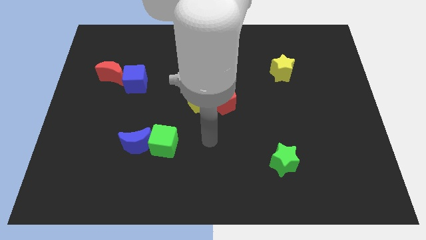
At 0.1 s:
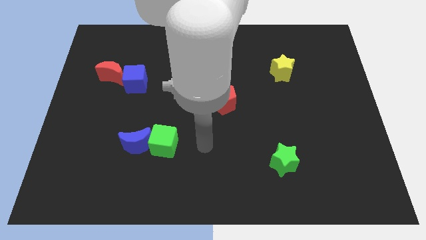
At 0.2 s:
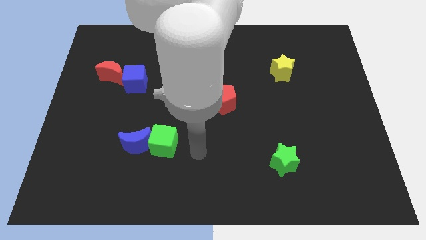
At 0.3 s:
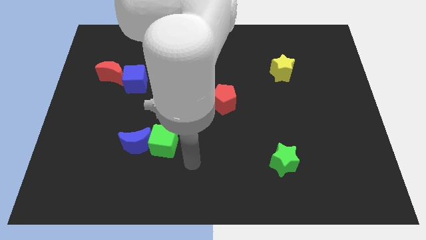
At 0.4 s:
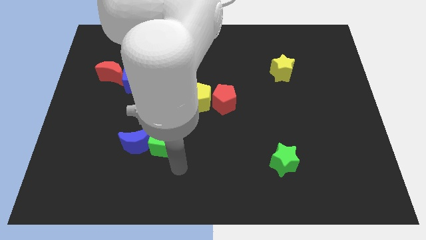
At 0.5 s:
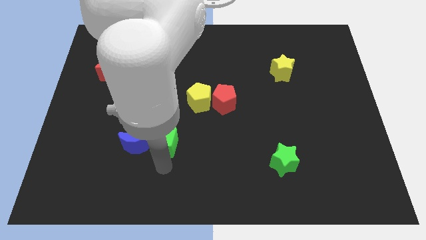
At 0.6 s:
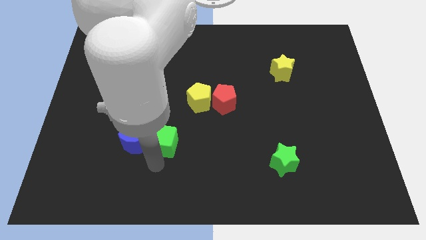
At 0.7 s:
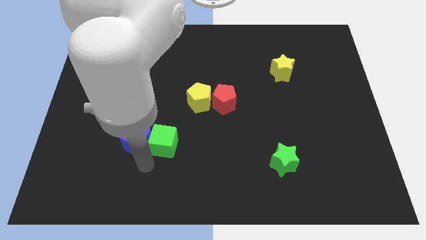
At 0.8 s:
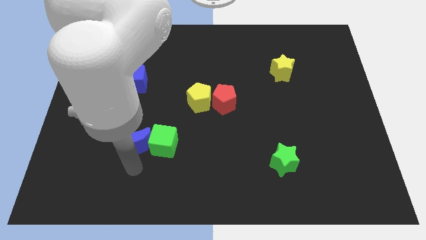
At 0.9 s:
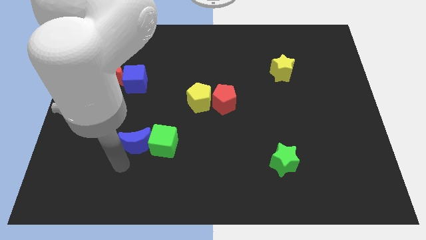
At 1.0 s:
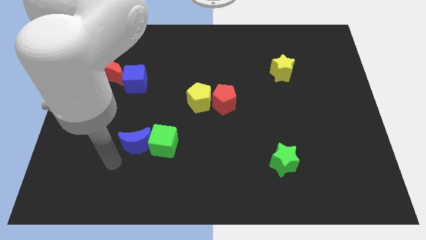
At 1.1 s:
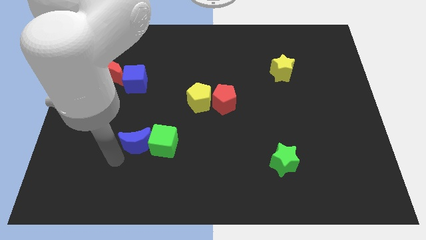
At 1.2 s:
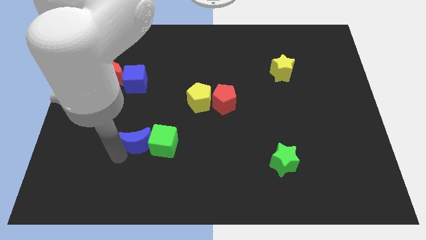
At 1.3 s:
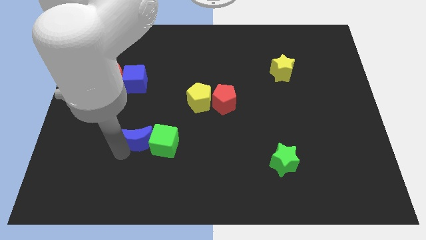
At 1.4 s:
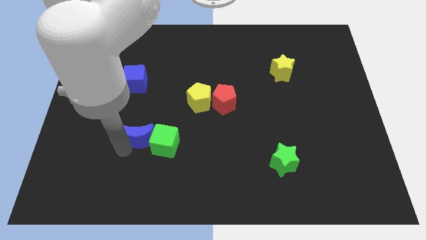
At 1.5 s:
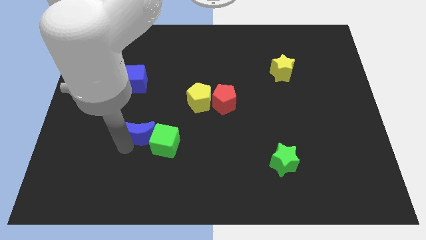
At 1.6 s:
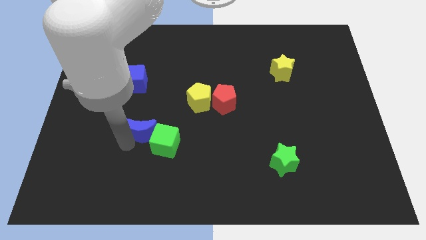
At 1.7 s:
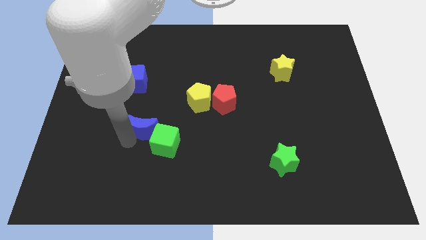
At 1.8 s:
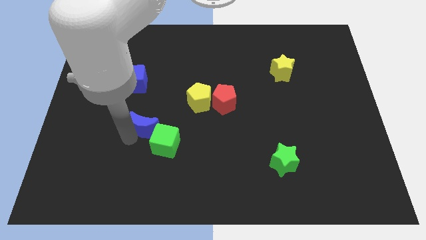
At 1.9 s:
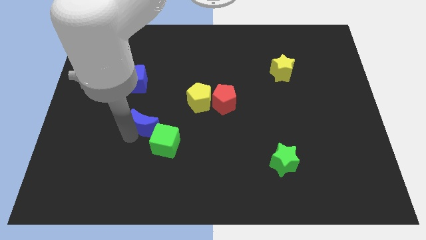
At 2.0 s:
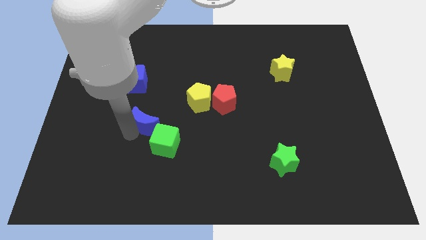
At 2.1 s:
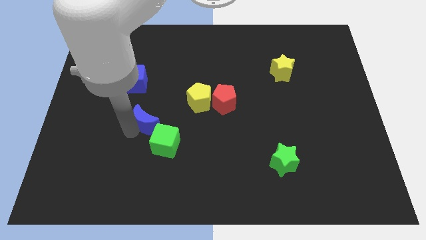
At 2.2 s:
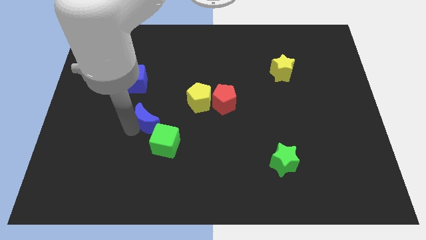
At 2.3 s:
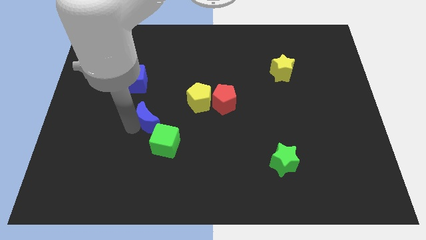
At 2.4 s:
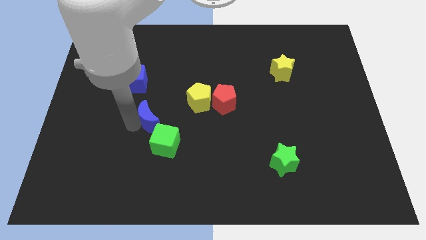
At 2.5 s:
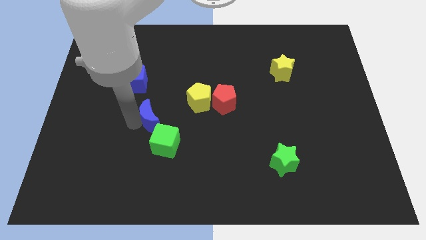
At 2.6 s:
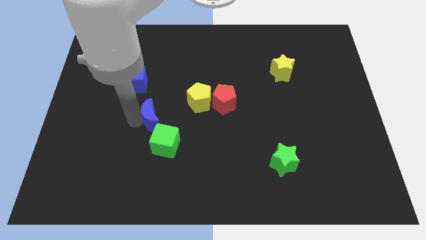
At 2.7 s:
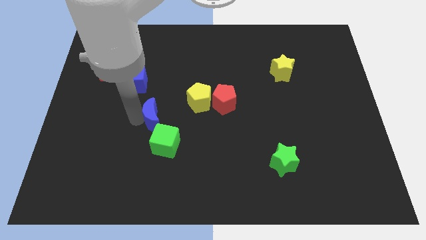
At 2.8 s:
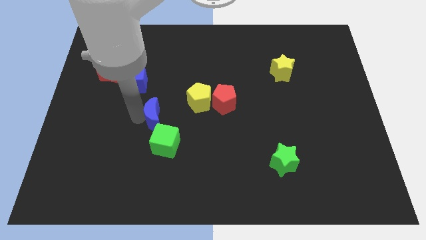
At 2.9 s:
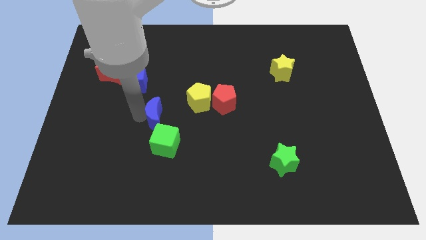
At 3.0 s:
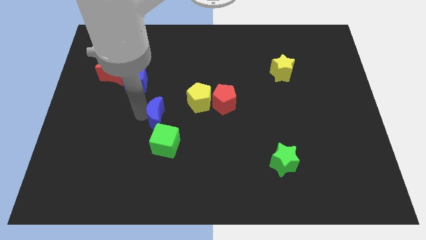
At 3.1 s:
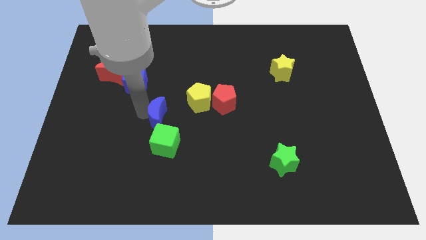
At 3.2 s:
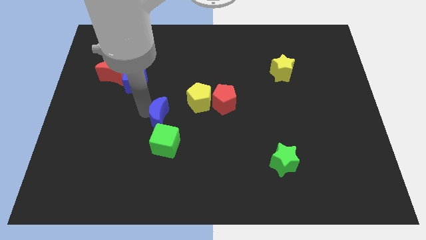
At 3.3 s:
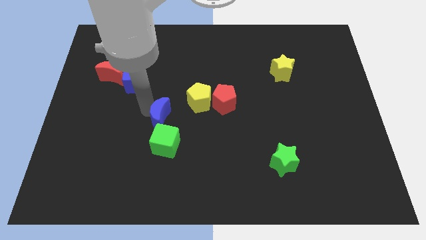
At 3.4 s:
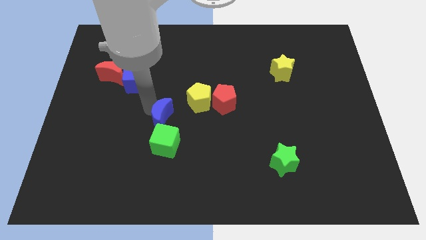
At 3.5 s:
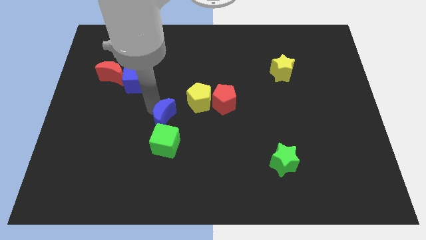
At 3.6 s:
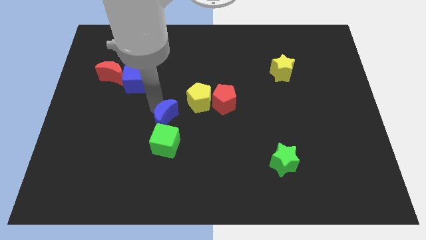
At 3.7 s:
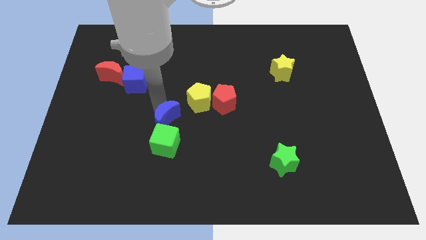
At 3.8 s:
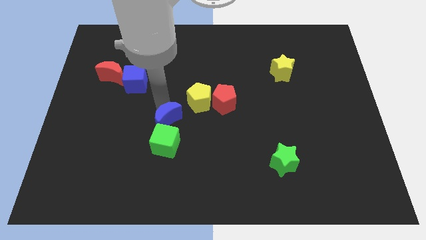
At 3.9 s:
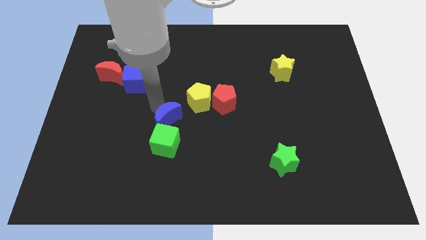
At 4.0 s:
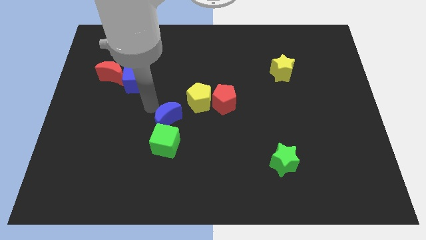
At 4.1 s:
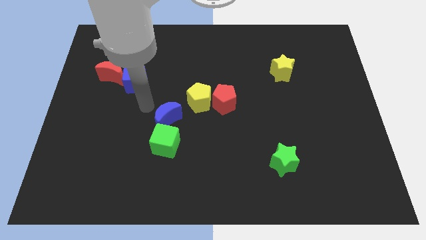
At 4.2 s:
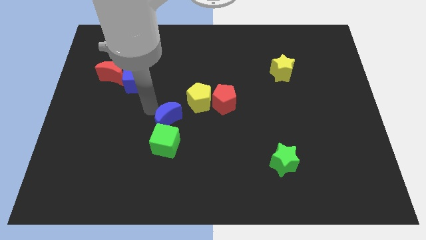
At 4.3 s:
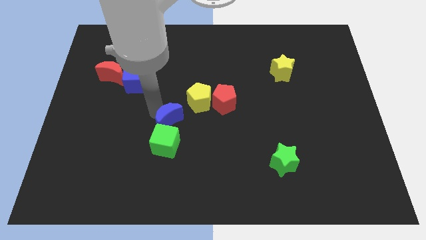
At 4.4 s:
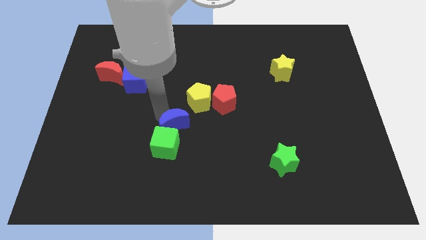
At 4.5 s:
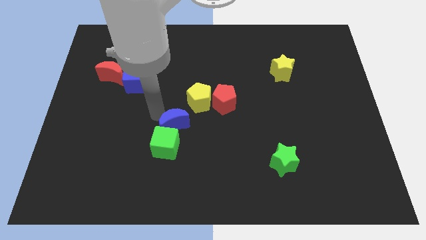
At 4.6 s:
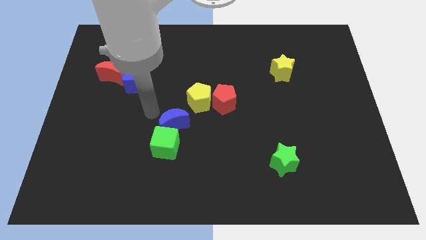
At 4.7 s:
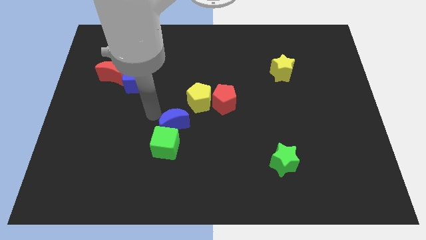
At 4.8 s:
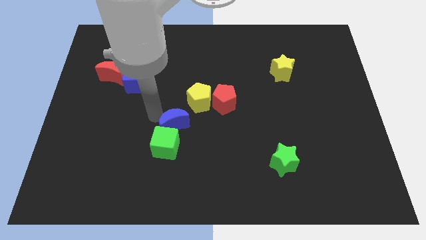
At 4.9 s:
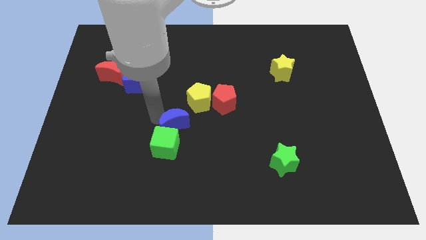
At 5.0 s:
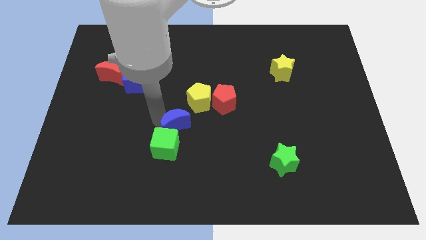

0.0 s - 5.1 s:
move the blue moon somewhat to the right

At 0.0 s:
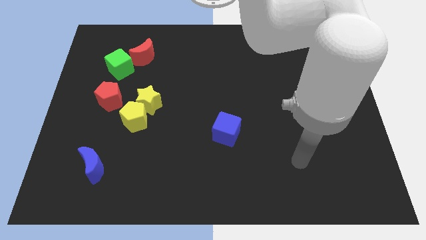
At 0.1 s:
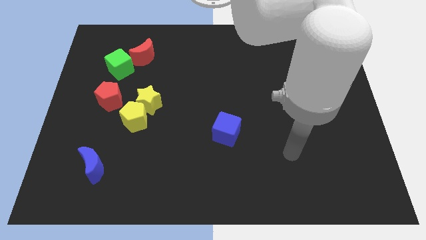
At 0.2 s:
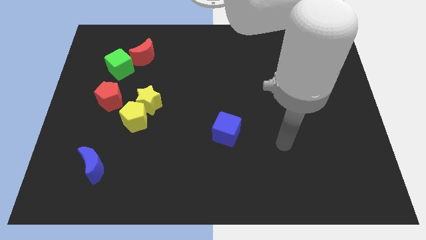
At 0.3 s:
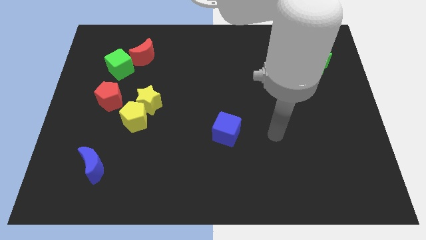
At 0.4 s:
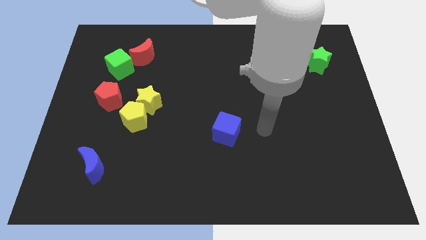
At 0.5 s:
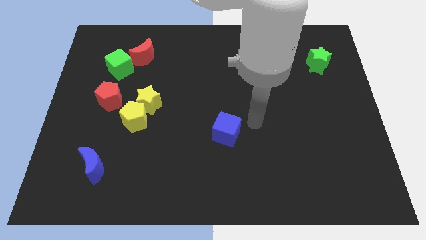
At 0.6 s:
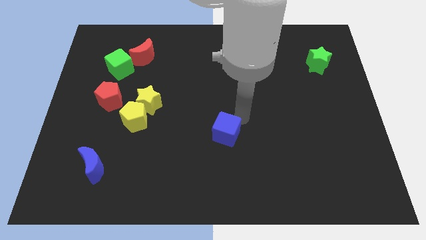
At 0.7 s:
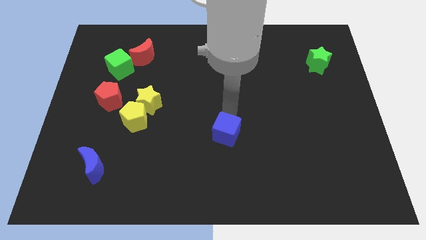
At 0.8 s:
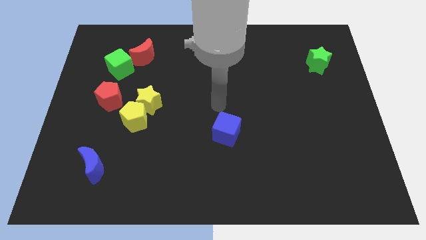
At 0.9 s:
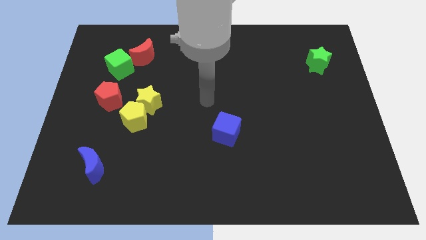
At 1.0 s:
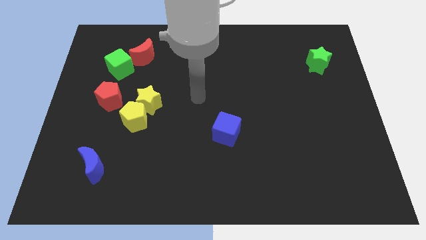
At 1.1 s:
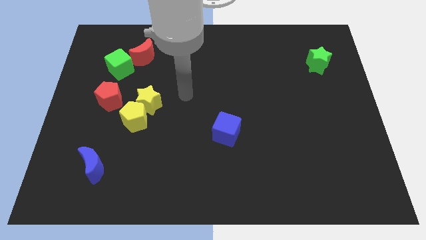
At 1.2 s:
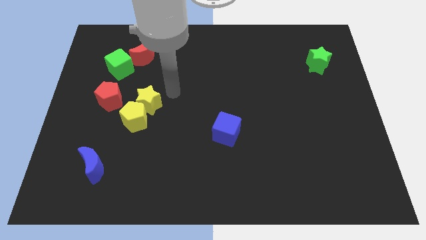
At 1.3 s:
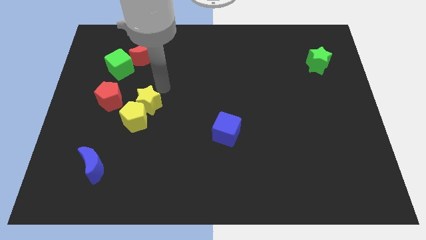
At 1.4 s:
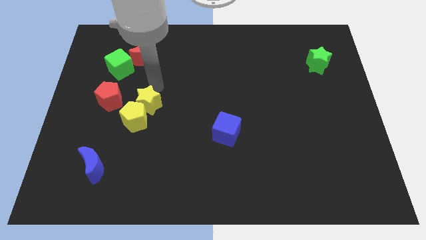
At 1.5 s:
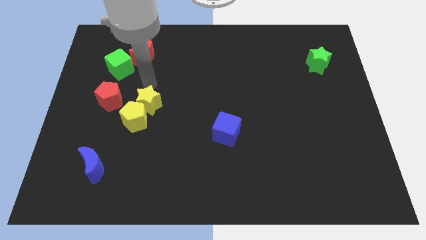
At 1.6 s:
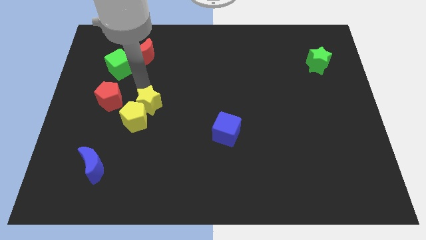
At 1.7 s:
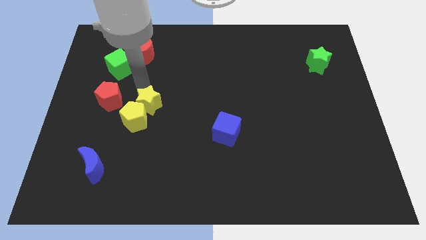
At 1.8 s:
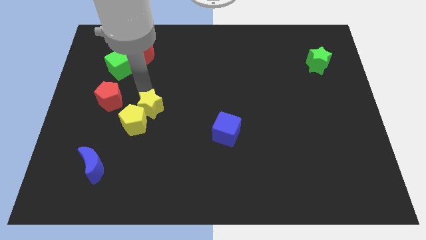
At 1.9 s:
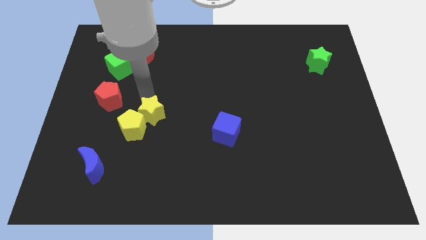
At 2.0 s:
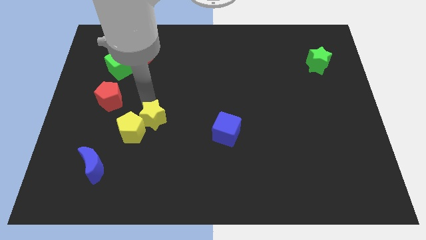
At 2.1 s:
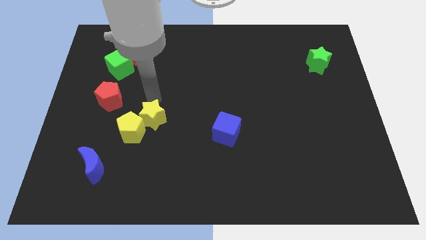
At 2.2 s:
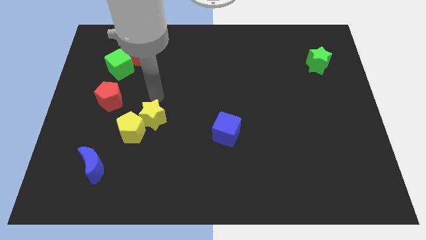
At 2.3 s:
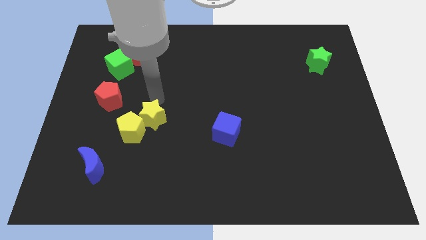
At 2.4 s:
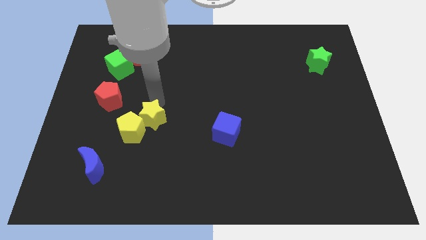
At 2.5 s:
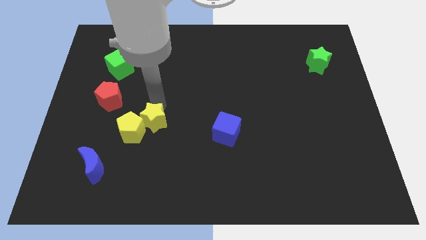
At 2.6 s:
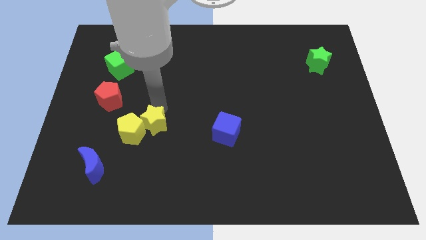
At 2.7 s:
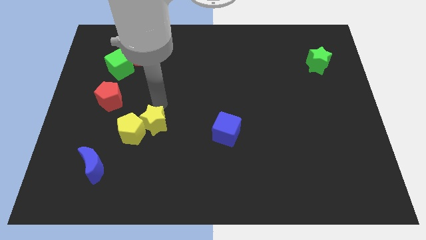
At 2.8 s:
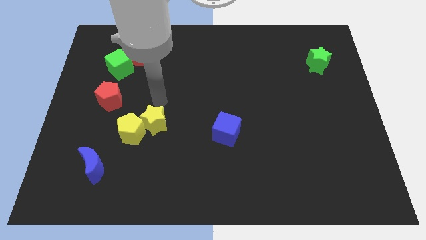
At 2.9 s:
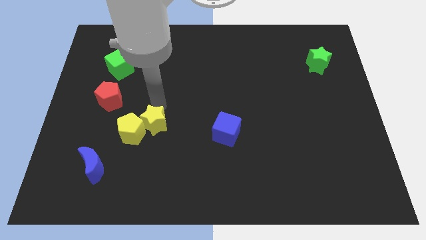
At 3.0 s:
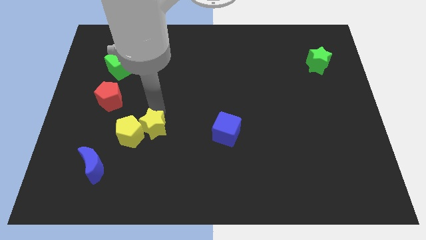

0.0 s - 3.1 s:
slide the yellow star down a little bit
